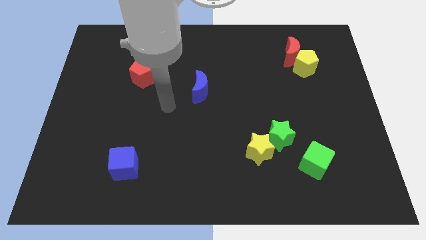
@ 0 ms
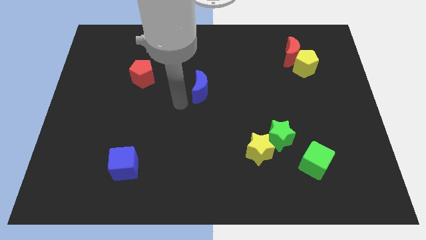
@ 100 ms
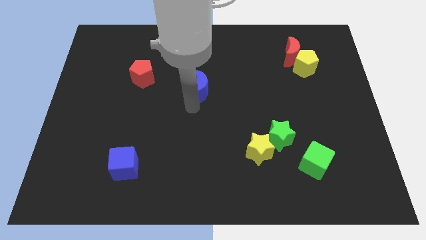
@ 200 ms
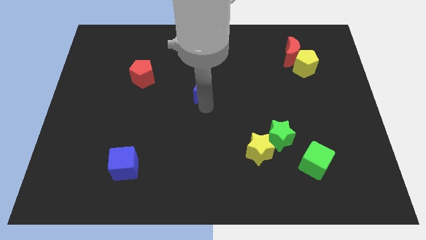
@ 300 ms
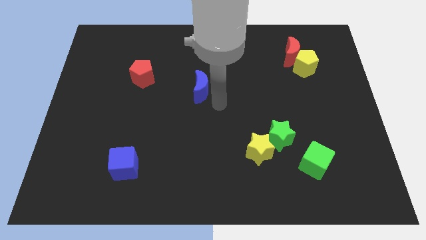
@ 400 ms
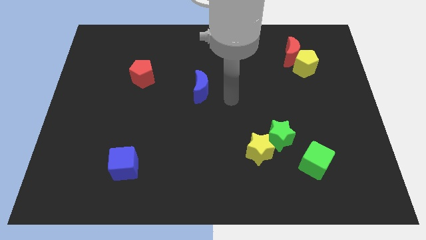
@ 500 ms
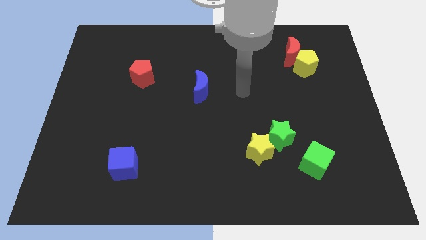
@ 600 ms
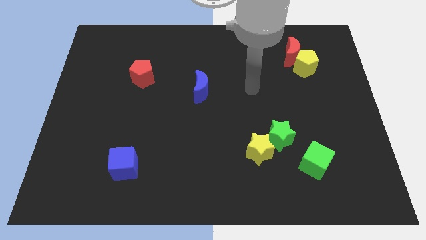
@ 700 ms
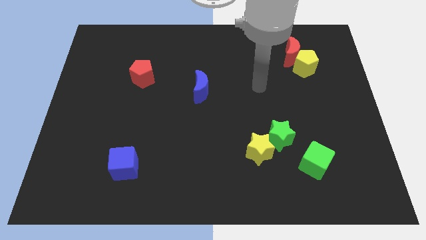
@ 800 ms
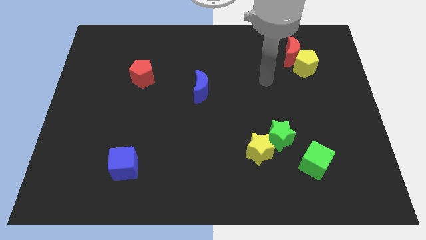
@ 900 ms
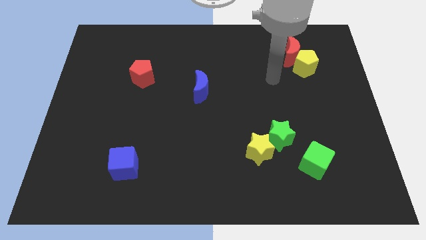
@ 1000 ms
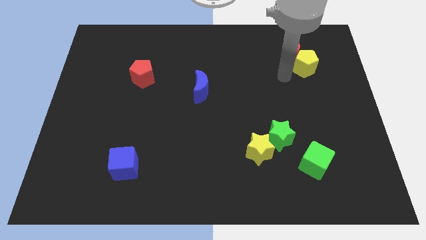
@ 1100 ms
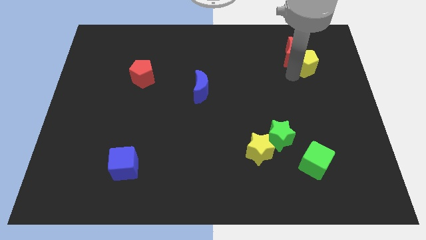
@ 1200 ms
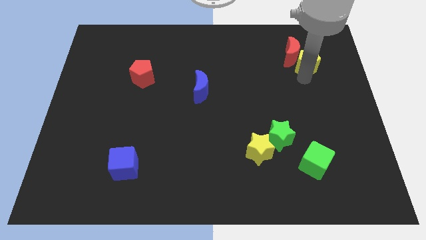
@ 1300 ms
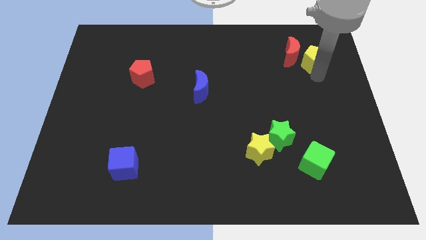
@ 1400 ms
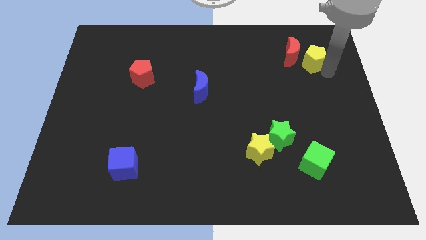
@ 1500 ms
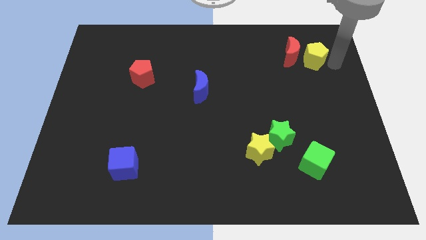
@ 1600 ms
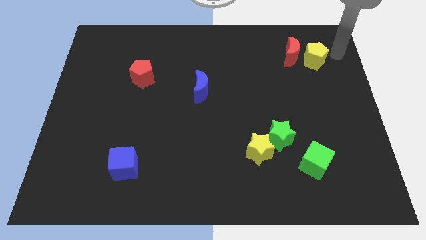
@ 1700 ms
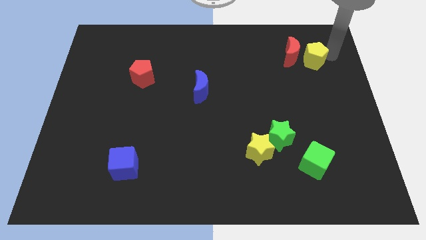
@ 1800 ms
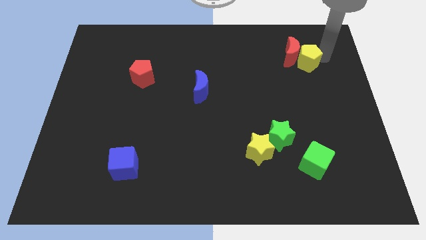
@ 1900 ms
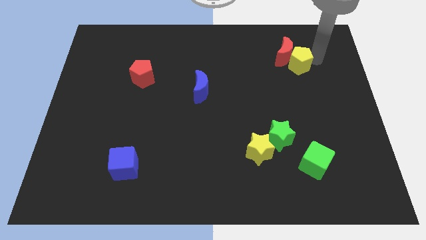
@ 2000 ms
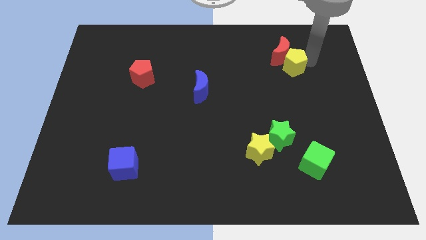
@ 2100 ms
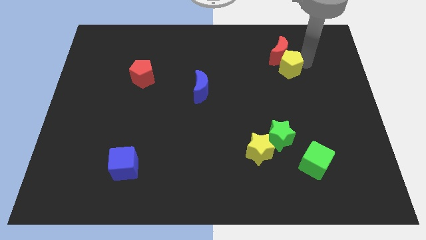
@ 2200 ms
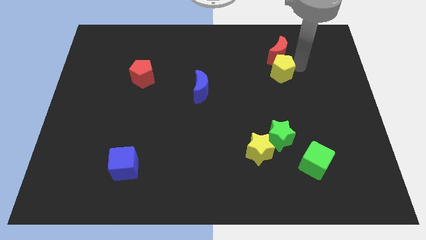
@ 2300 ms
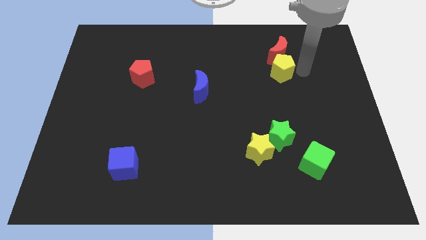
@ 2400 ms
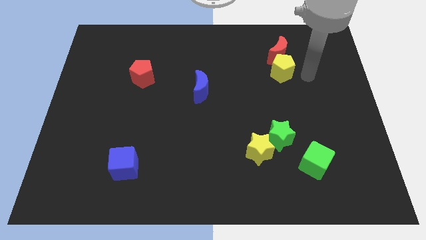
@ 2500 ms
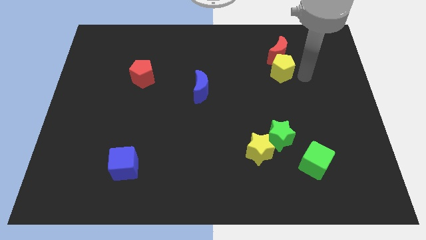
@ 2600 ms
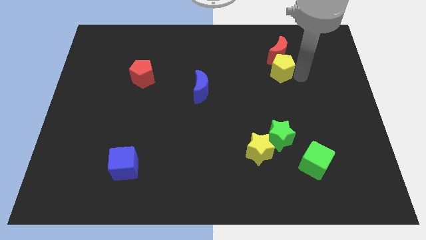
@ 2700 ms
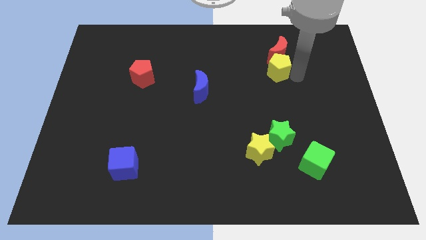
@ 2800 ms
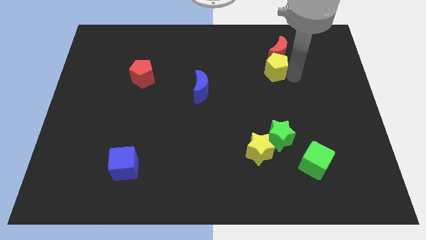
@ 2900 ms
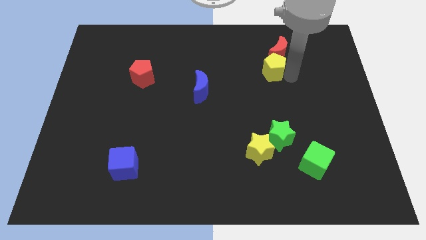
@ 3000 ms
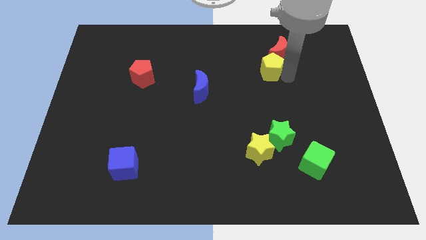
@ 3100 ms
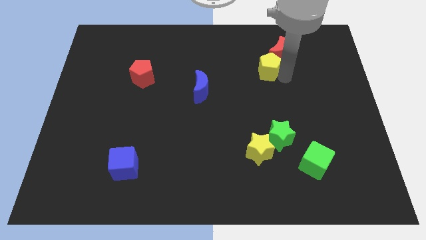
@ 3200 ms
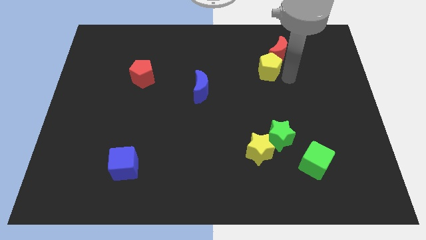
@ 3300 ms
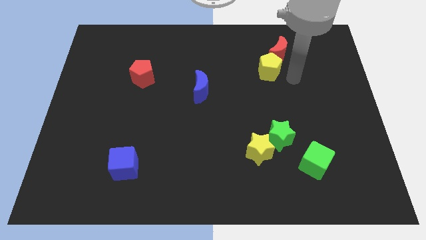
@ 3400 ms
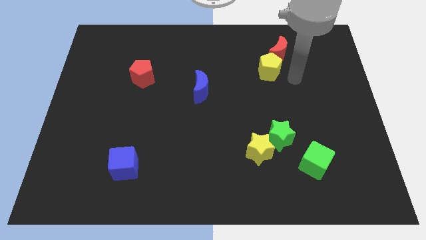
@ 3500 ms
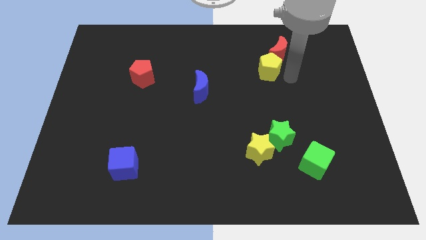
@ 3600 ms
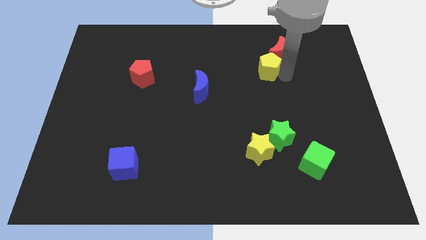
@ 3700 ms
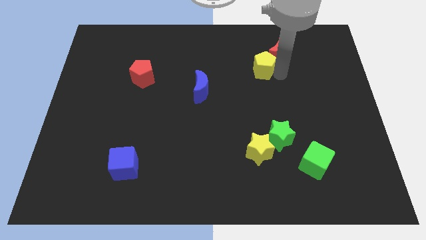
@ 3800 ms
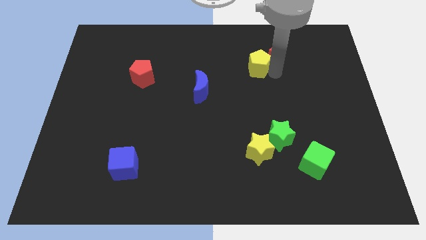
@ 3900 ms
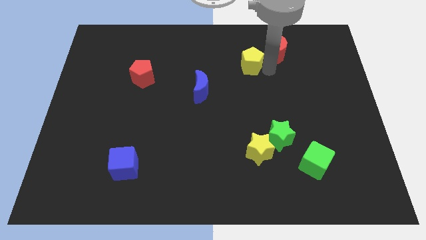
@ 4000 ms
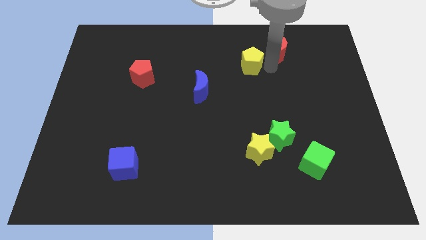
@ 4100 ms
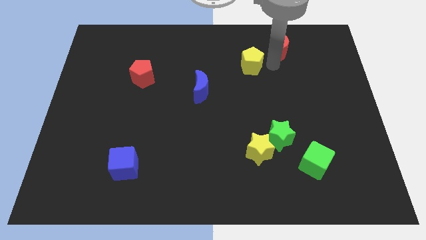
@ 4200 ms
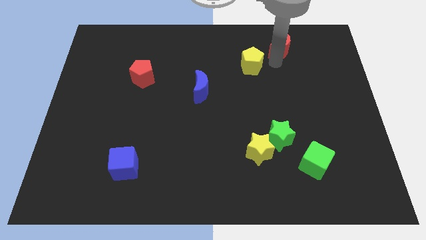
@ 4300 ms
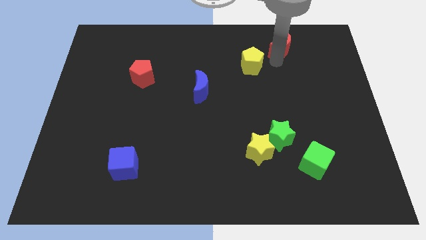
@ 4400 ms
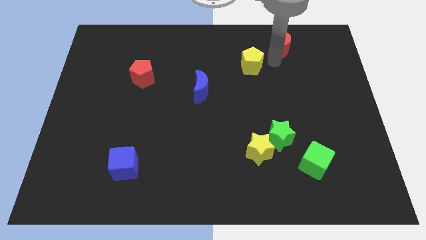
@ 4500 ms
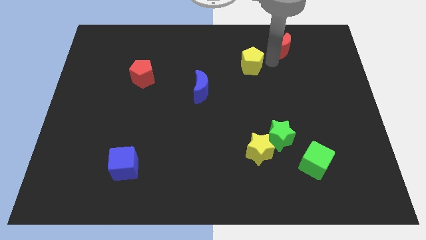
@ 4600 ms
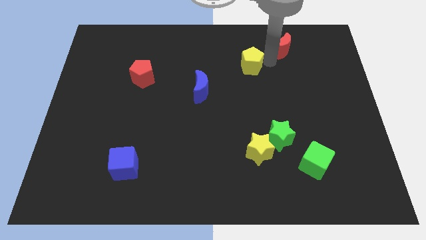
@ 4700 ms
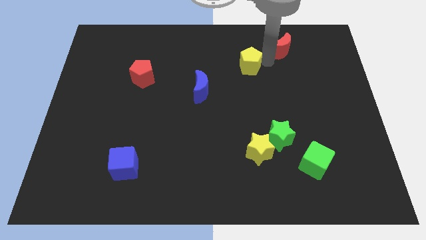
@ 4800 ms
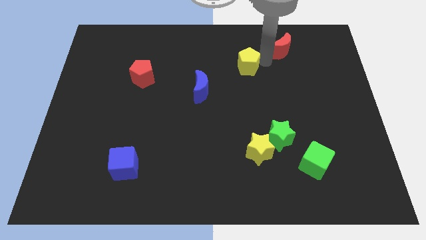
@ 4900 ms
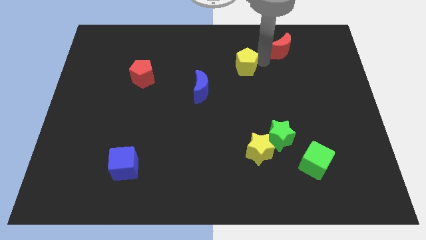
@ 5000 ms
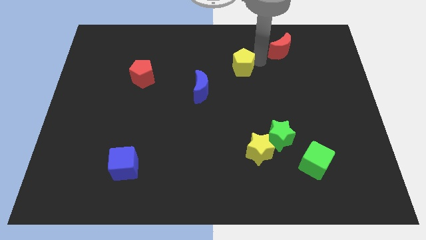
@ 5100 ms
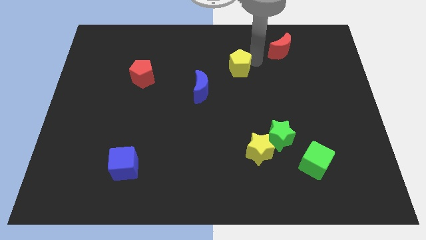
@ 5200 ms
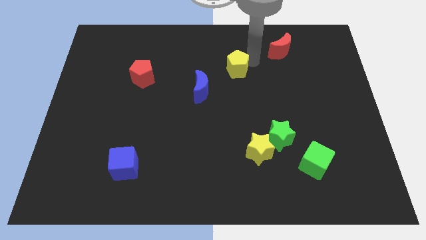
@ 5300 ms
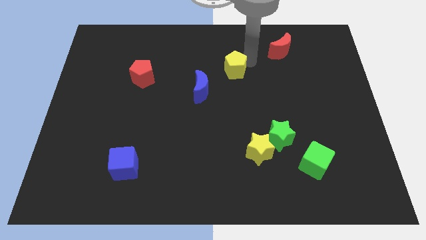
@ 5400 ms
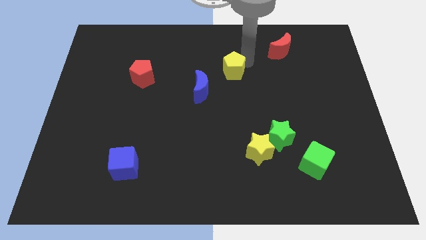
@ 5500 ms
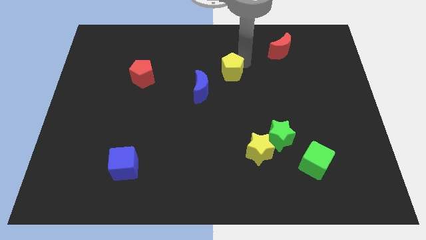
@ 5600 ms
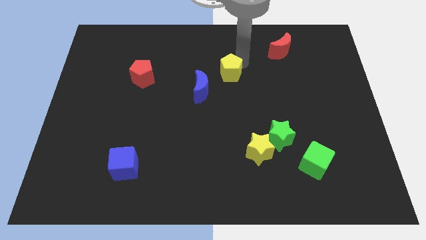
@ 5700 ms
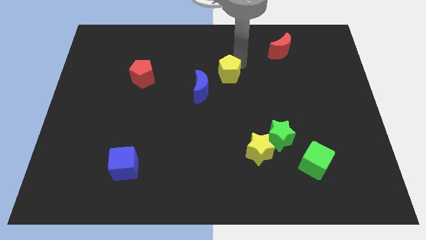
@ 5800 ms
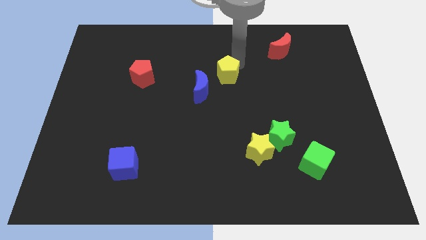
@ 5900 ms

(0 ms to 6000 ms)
move the yellow pentagon to the left

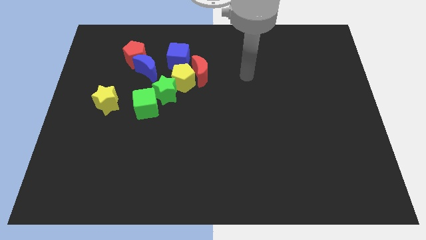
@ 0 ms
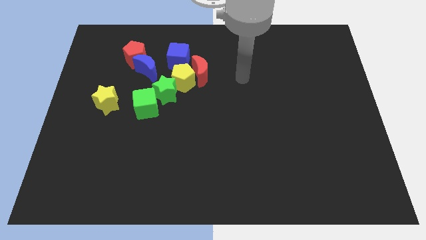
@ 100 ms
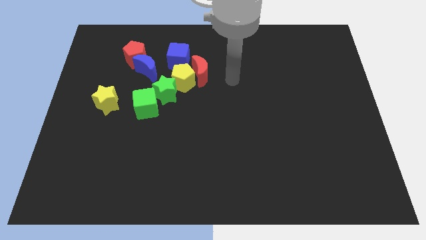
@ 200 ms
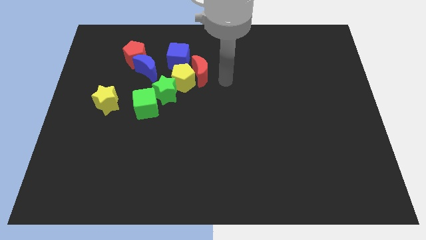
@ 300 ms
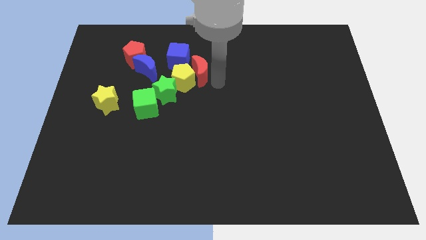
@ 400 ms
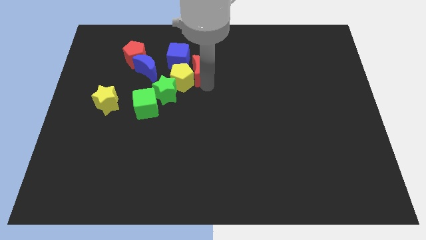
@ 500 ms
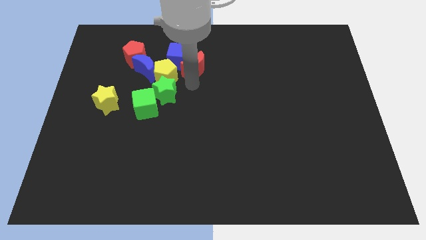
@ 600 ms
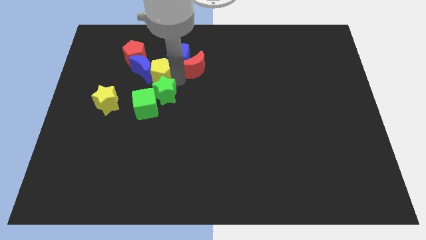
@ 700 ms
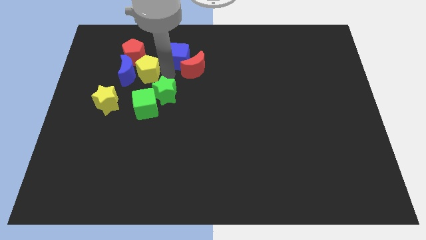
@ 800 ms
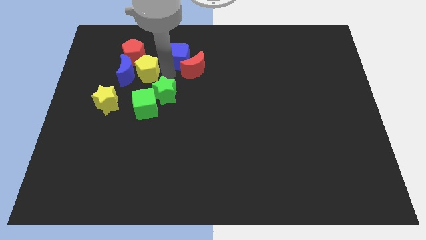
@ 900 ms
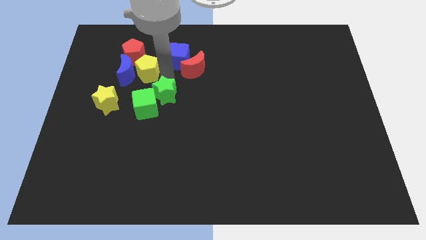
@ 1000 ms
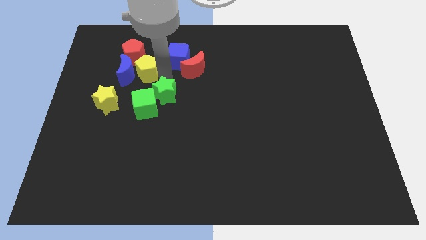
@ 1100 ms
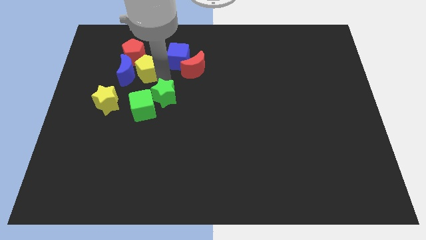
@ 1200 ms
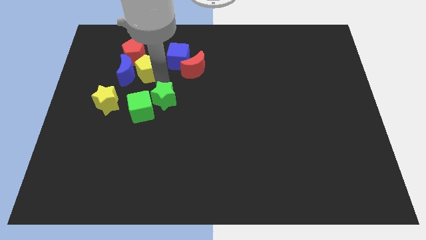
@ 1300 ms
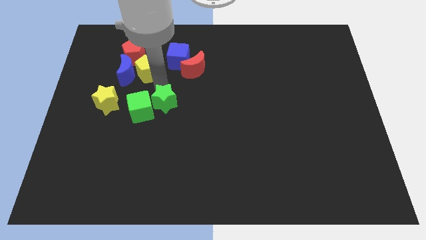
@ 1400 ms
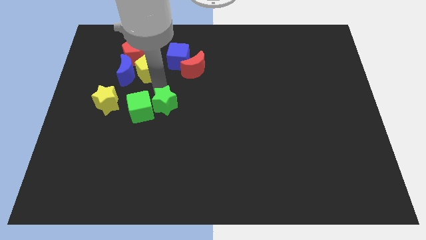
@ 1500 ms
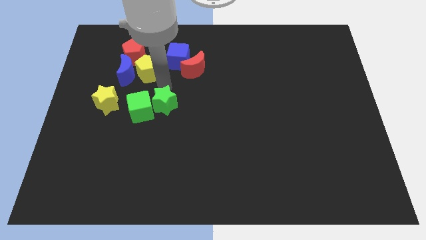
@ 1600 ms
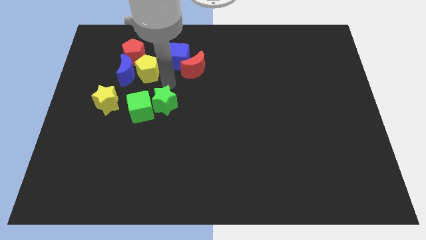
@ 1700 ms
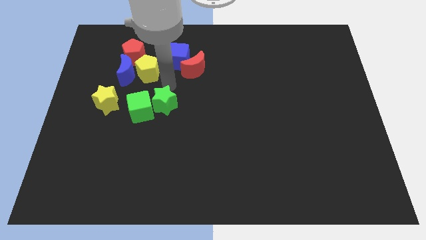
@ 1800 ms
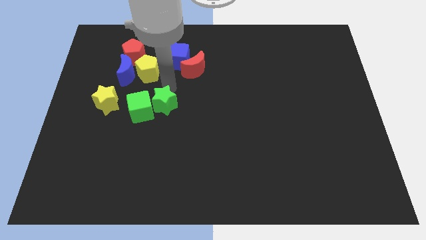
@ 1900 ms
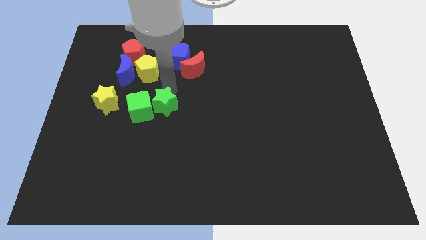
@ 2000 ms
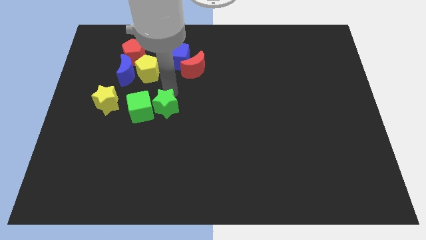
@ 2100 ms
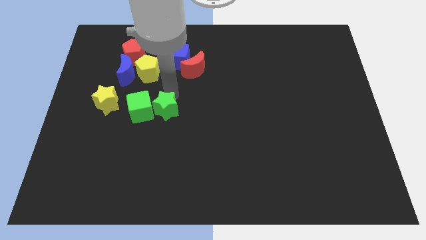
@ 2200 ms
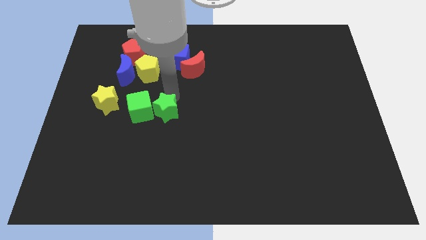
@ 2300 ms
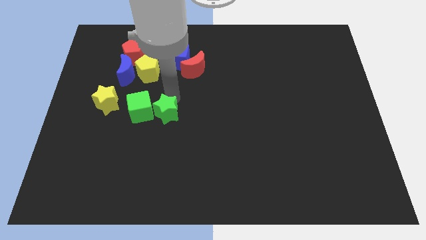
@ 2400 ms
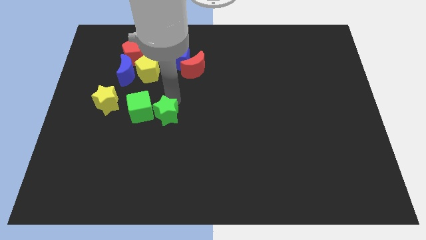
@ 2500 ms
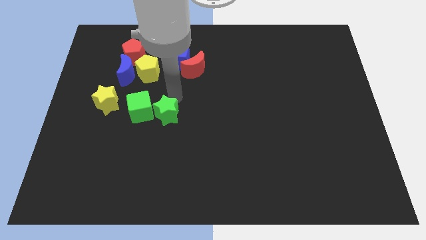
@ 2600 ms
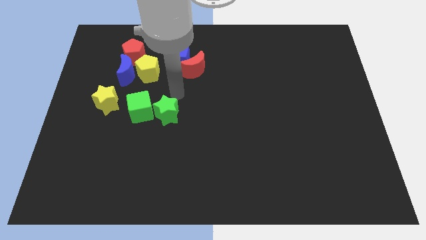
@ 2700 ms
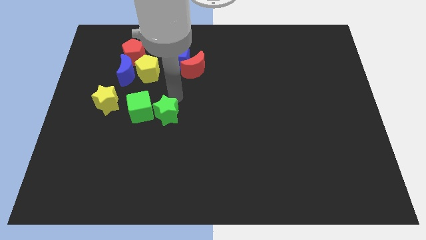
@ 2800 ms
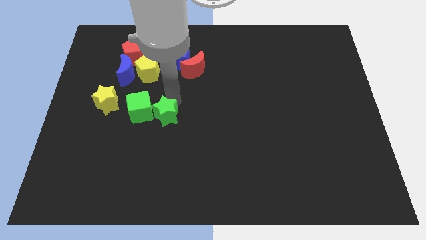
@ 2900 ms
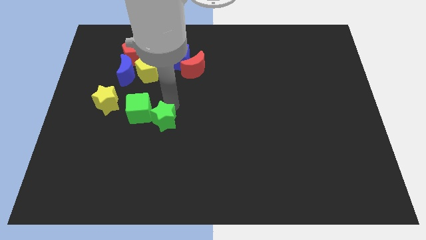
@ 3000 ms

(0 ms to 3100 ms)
slide the green star a bit downwards
